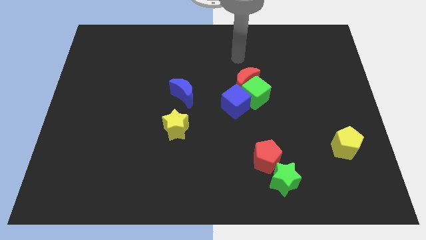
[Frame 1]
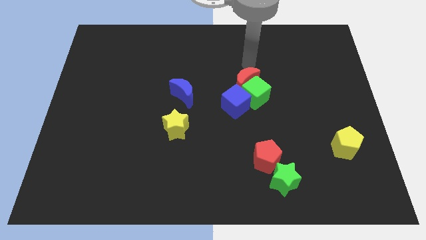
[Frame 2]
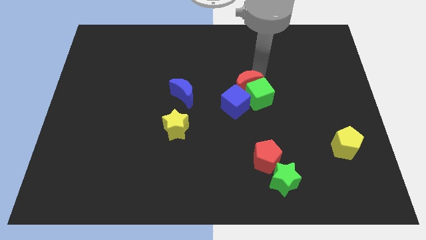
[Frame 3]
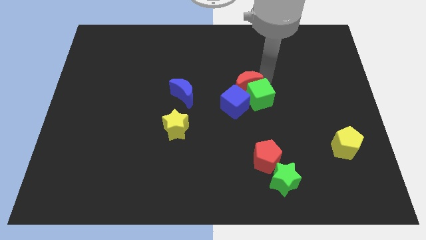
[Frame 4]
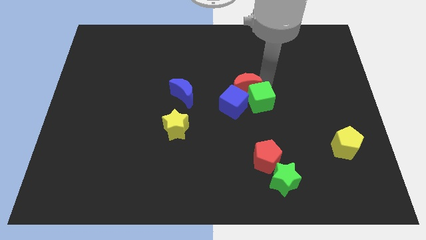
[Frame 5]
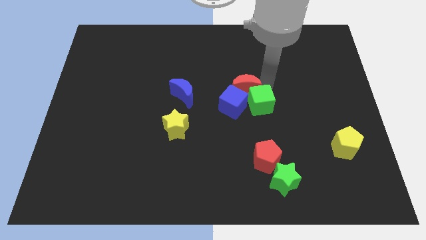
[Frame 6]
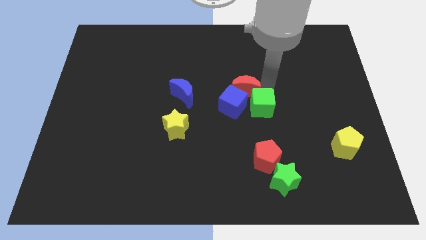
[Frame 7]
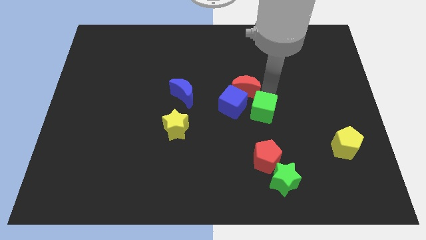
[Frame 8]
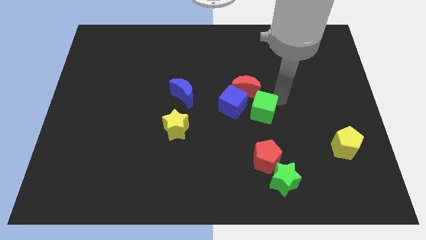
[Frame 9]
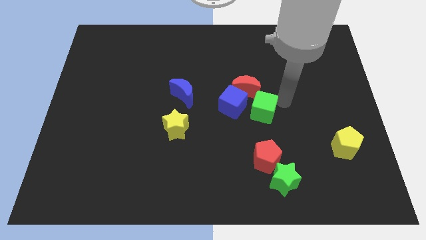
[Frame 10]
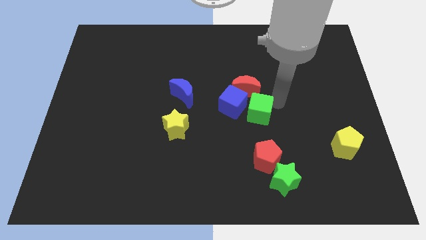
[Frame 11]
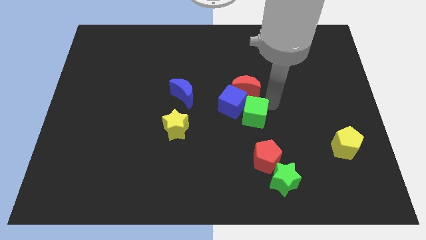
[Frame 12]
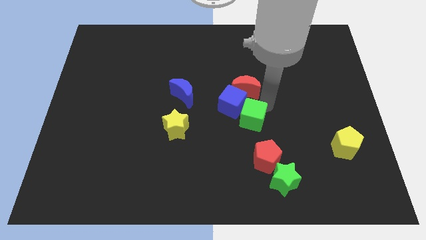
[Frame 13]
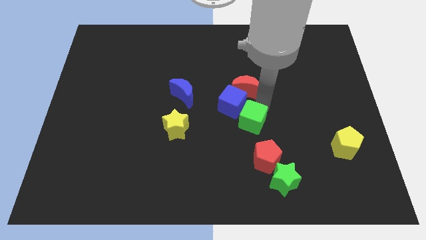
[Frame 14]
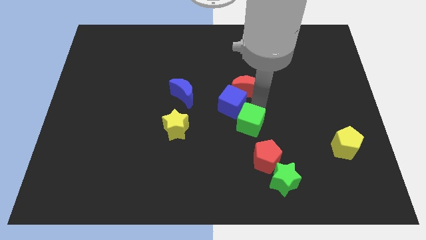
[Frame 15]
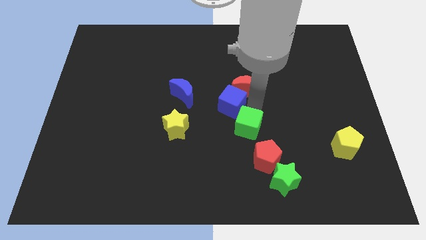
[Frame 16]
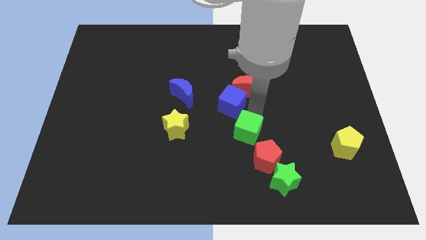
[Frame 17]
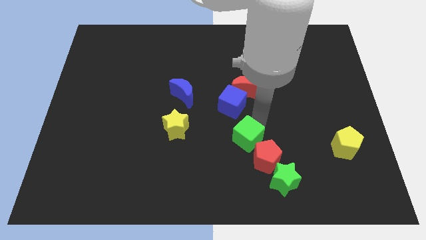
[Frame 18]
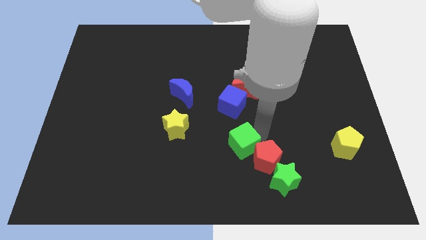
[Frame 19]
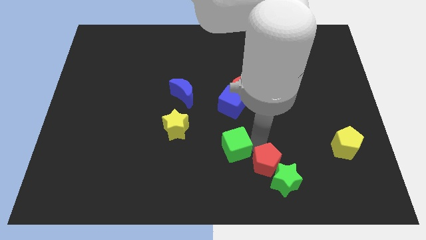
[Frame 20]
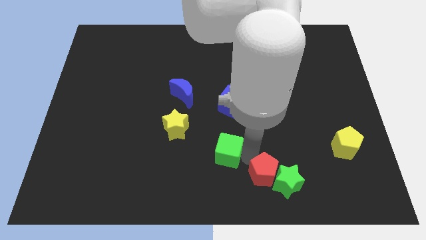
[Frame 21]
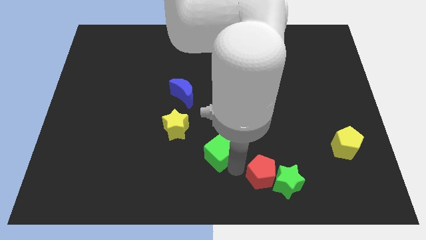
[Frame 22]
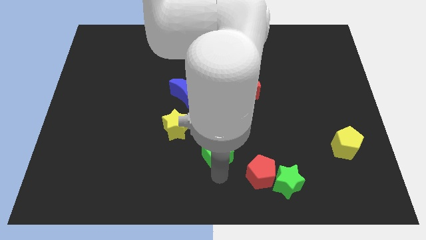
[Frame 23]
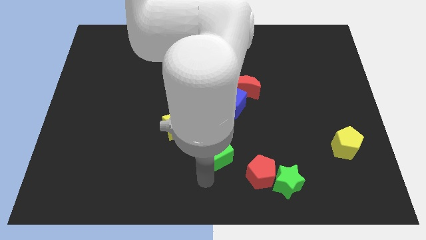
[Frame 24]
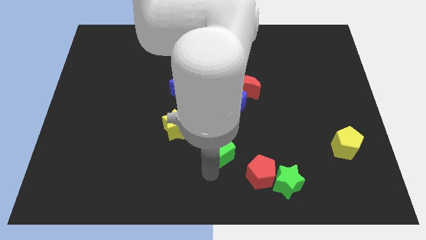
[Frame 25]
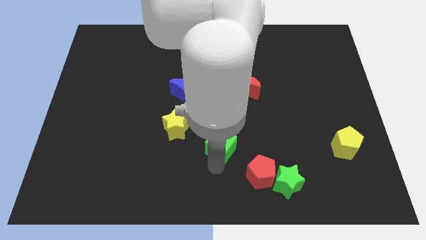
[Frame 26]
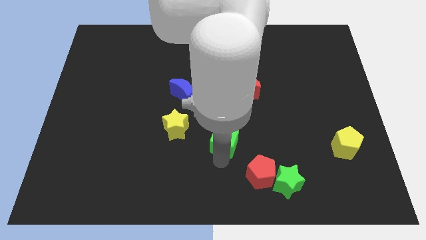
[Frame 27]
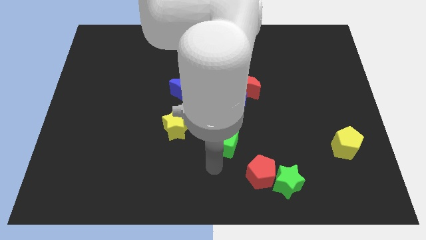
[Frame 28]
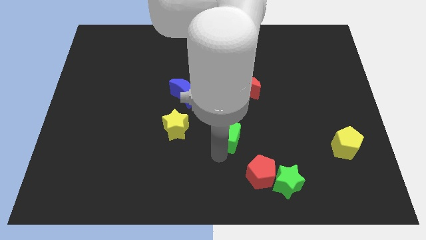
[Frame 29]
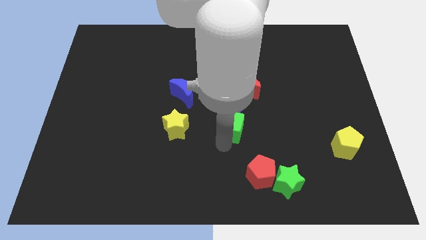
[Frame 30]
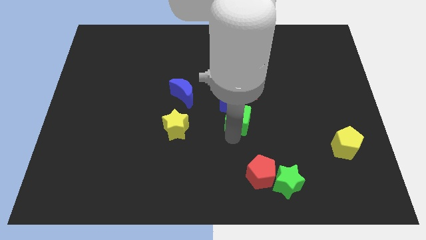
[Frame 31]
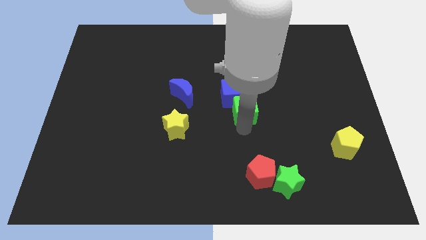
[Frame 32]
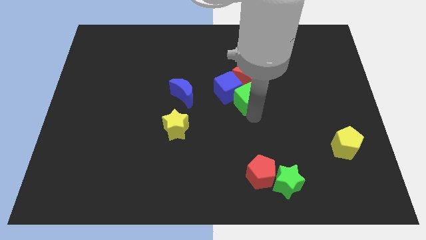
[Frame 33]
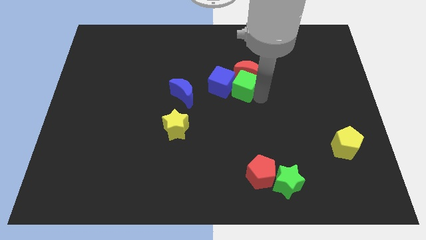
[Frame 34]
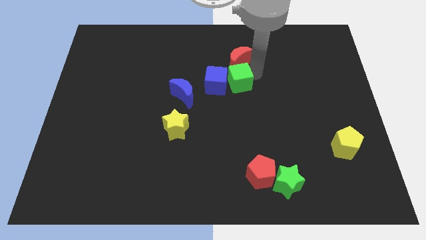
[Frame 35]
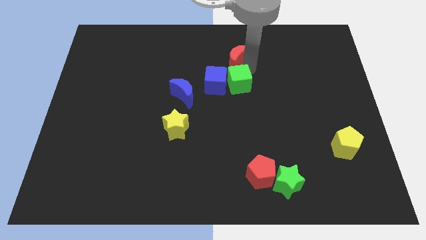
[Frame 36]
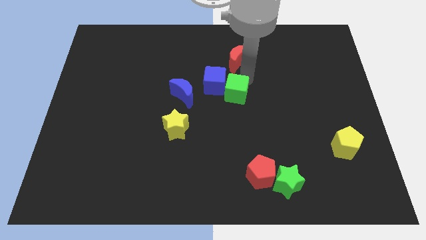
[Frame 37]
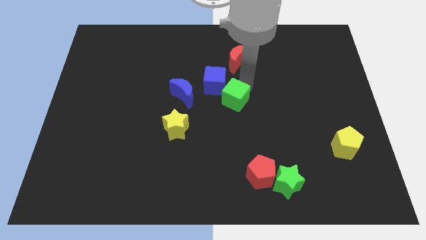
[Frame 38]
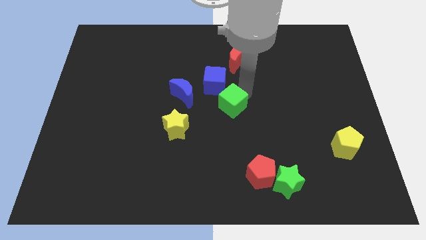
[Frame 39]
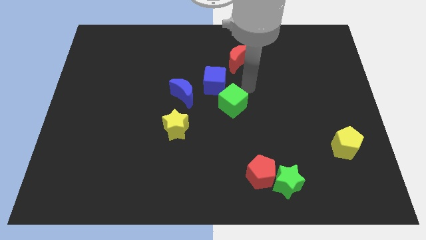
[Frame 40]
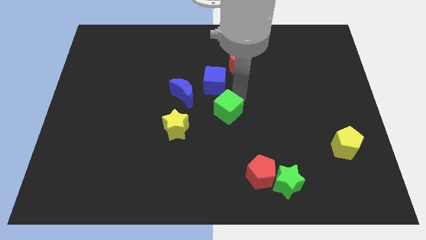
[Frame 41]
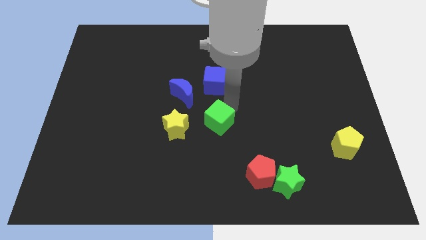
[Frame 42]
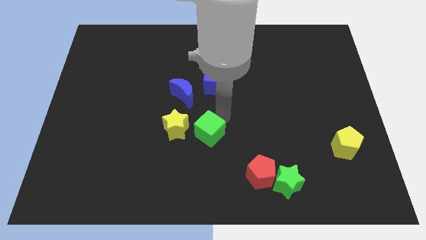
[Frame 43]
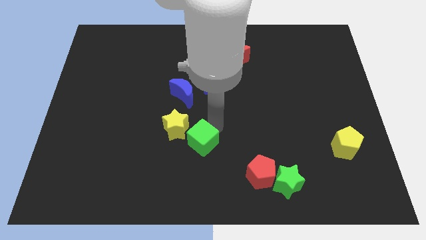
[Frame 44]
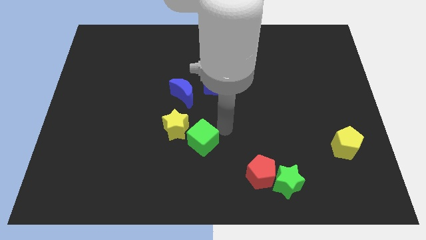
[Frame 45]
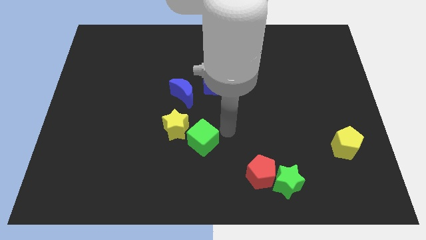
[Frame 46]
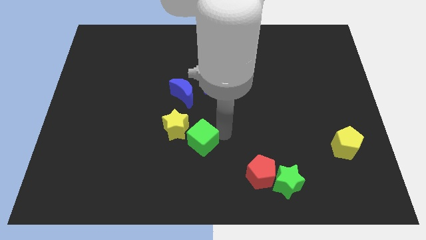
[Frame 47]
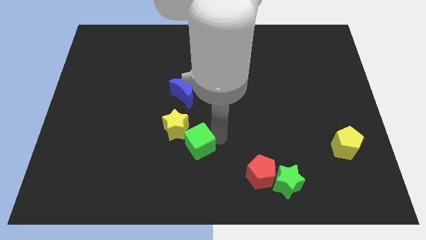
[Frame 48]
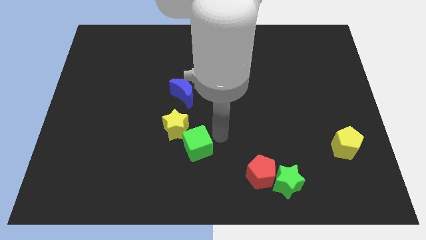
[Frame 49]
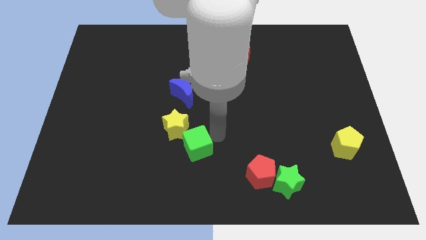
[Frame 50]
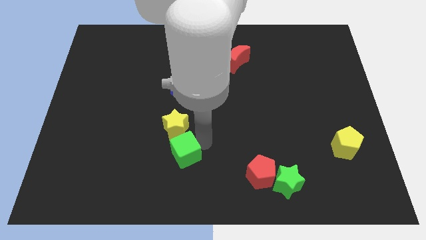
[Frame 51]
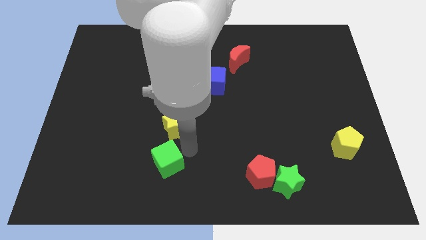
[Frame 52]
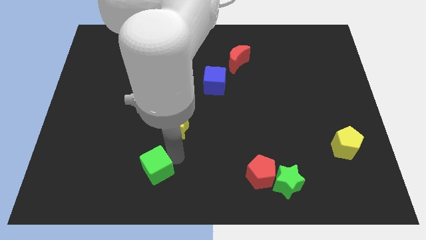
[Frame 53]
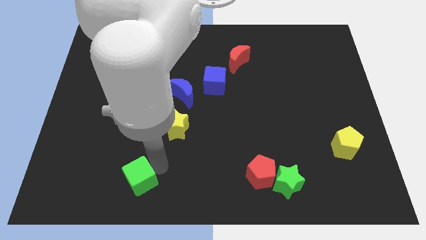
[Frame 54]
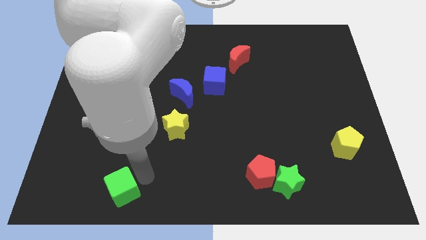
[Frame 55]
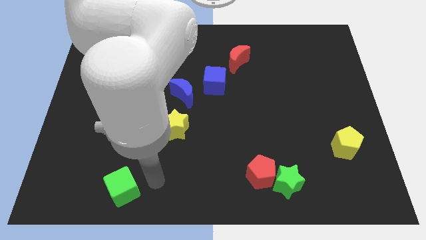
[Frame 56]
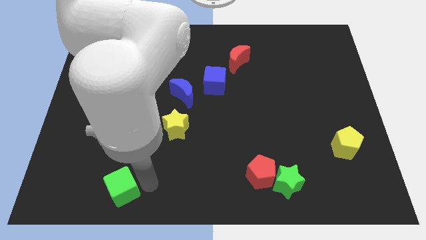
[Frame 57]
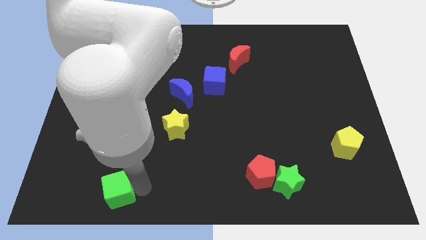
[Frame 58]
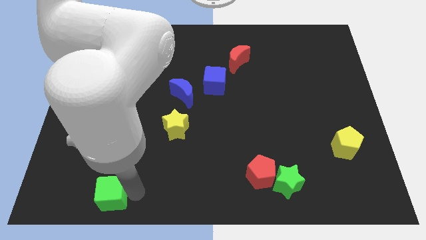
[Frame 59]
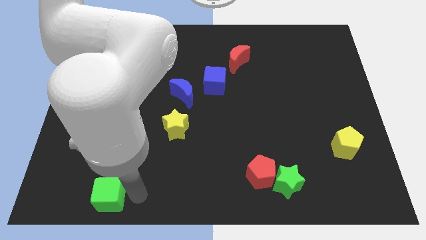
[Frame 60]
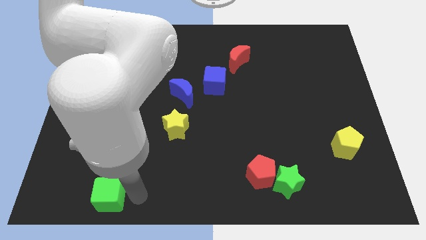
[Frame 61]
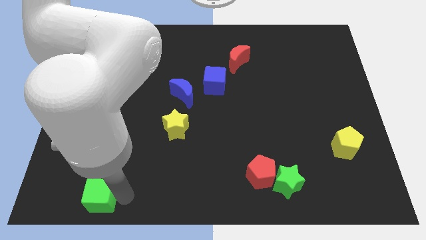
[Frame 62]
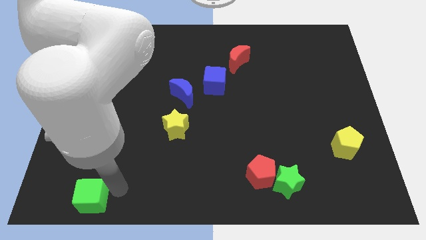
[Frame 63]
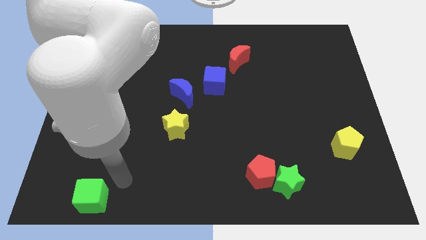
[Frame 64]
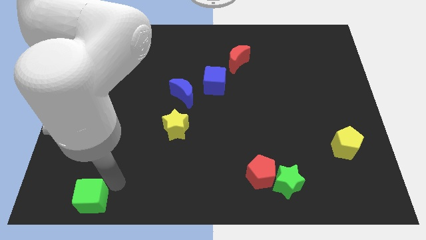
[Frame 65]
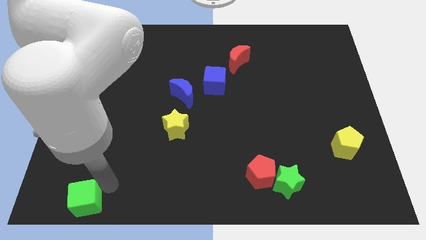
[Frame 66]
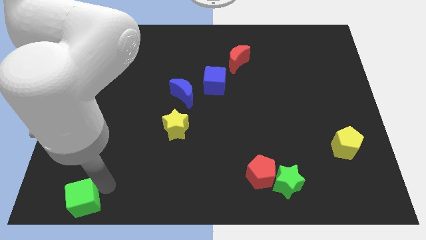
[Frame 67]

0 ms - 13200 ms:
move the green cube to the bottom left
